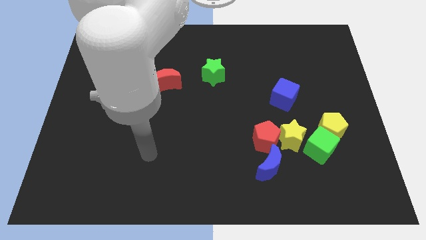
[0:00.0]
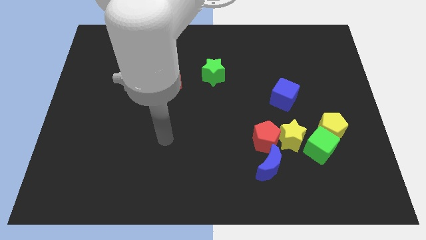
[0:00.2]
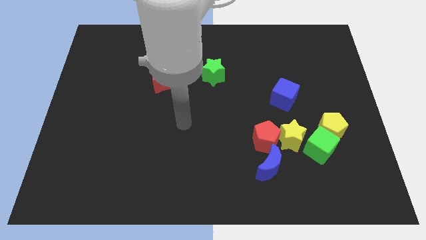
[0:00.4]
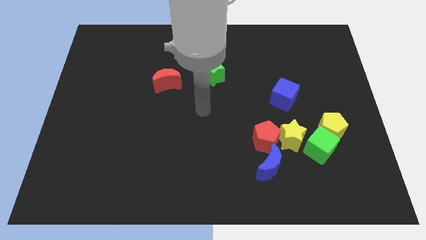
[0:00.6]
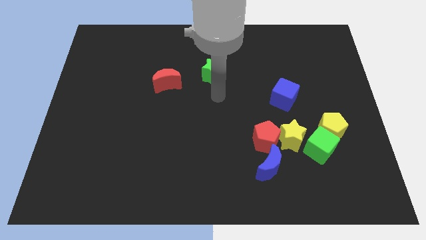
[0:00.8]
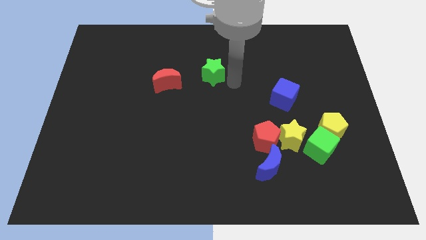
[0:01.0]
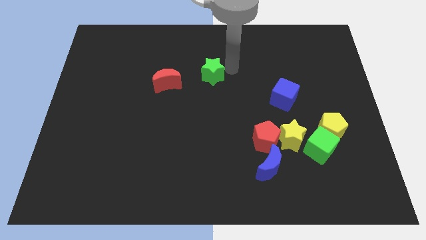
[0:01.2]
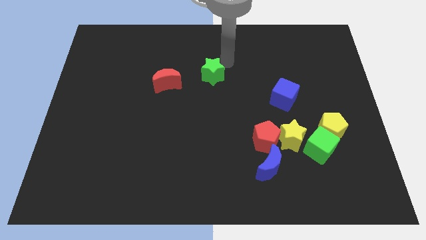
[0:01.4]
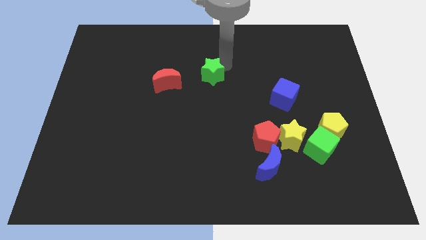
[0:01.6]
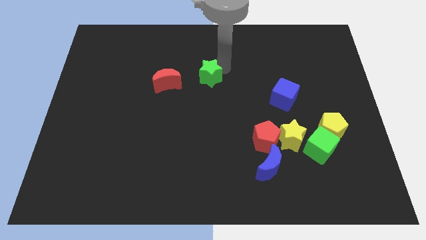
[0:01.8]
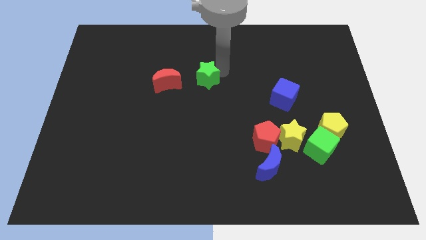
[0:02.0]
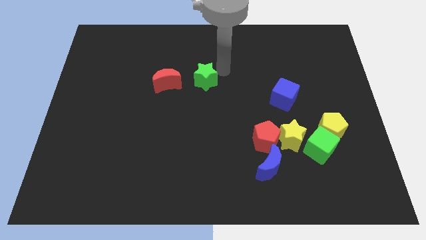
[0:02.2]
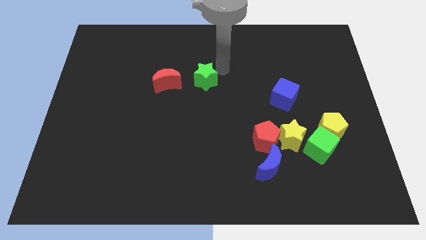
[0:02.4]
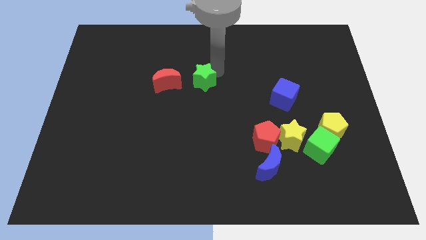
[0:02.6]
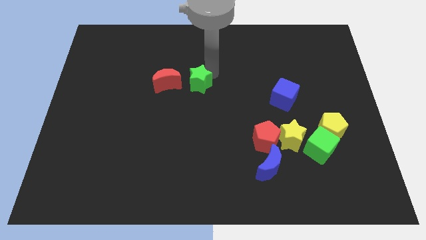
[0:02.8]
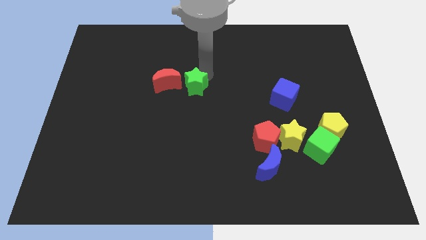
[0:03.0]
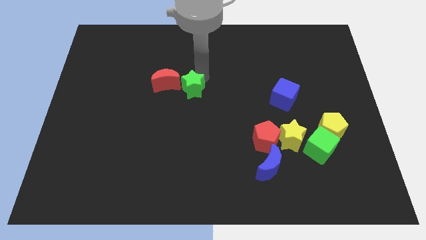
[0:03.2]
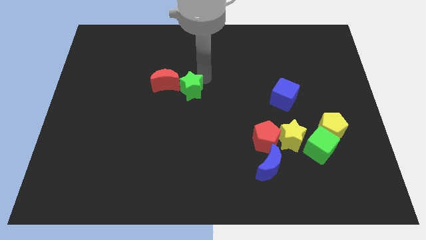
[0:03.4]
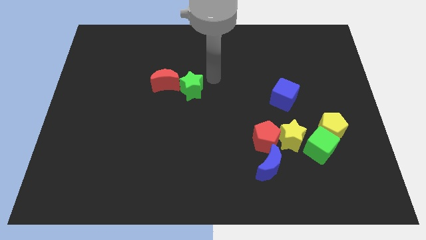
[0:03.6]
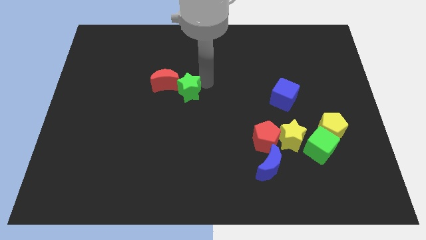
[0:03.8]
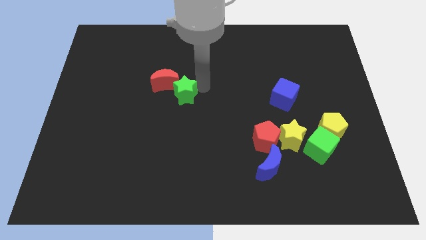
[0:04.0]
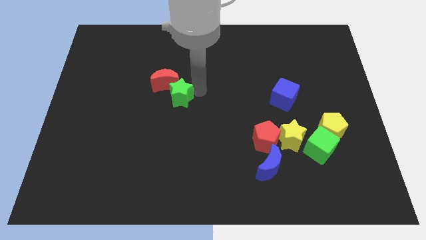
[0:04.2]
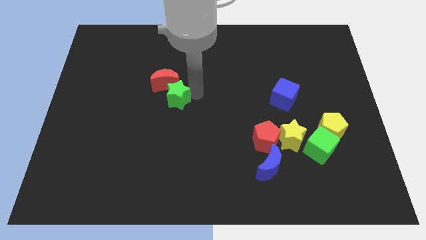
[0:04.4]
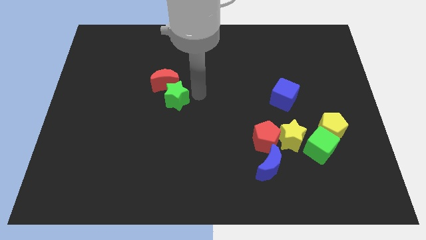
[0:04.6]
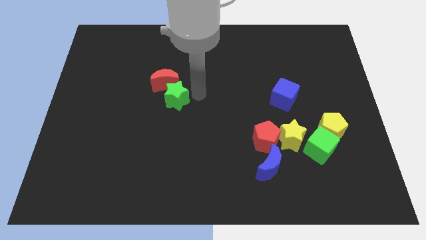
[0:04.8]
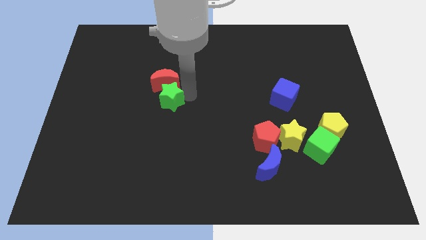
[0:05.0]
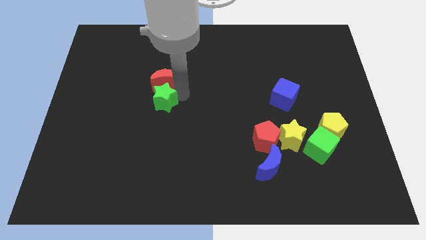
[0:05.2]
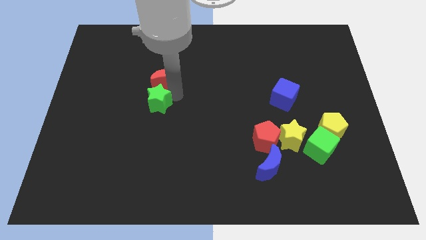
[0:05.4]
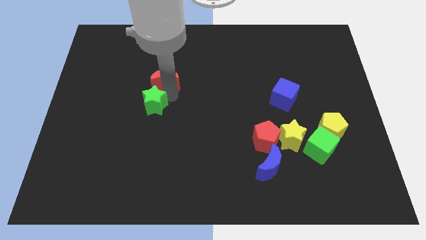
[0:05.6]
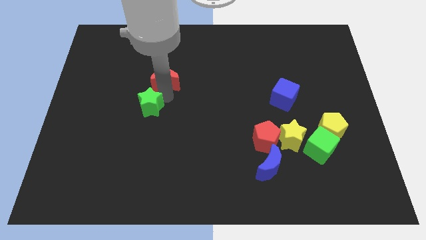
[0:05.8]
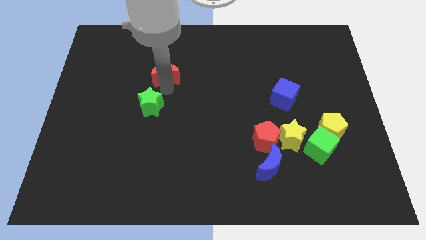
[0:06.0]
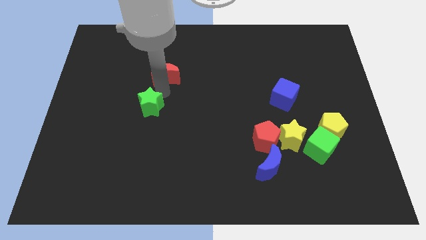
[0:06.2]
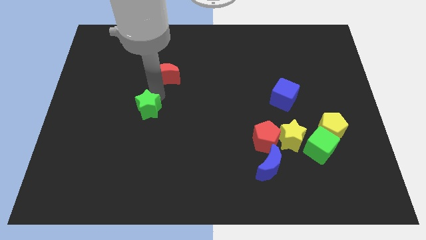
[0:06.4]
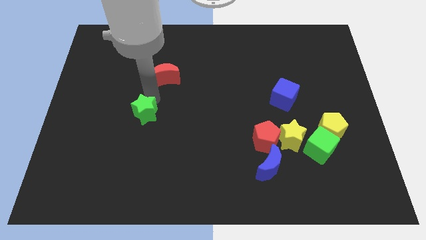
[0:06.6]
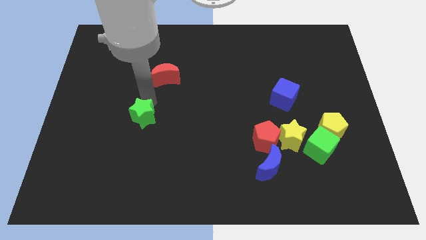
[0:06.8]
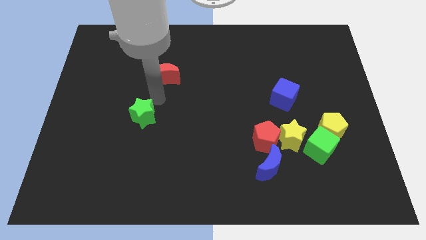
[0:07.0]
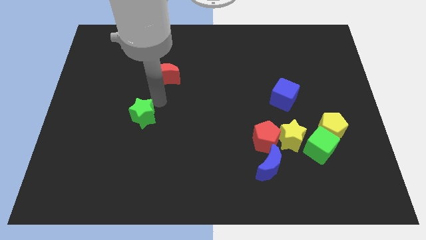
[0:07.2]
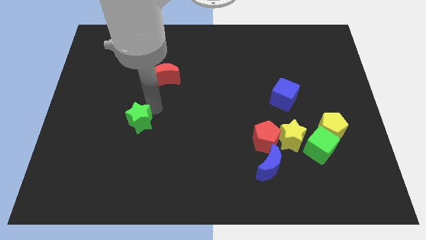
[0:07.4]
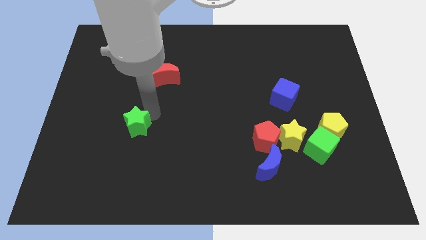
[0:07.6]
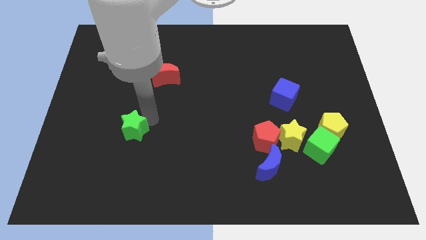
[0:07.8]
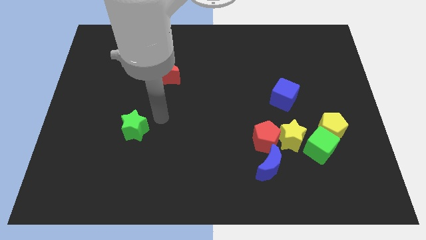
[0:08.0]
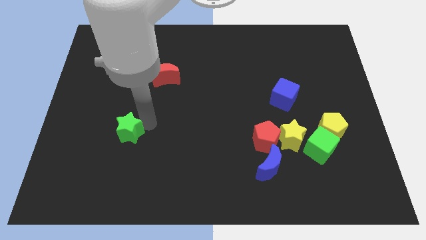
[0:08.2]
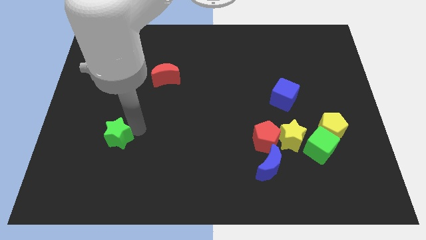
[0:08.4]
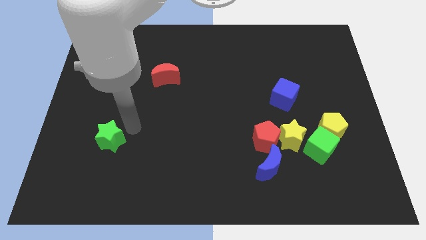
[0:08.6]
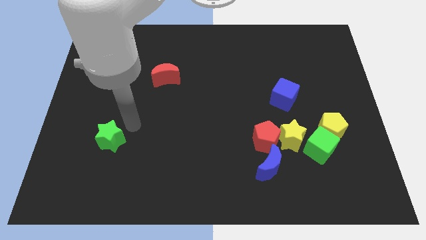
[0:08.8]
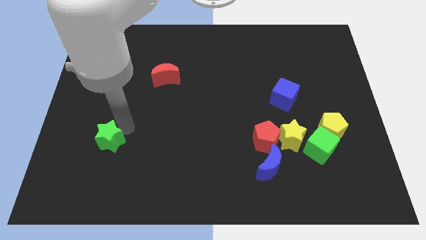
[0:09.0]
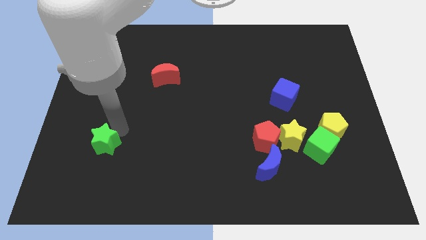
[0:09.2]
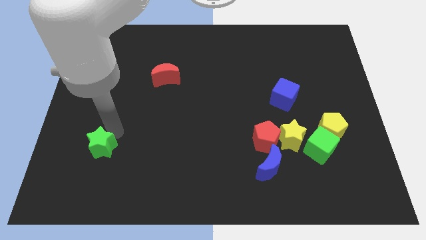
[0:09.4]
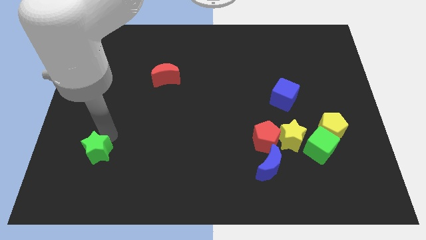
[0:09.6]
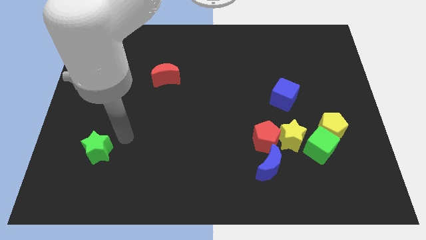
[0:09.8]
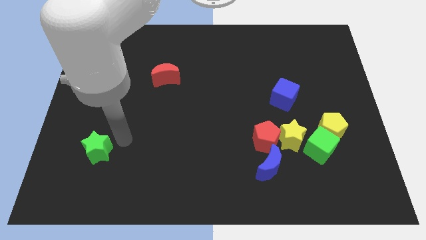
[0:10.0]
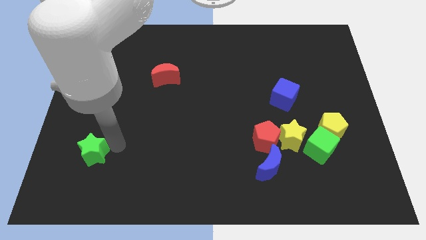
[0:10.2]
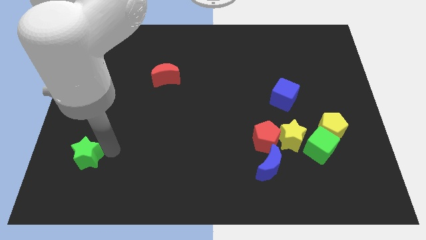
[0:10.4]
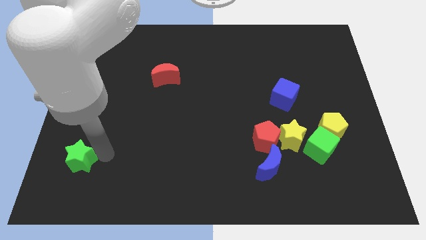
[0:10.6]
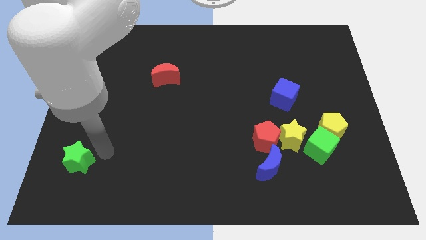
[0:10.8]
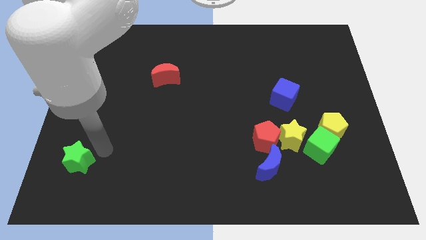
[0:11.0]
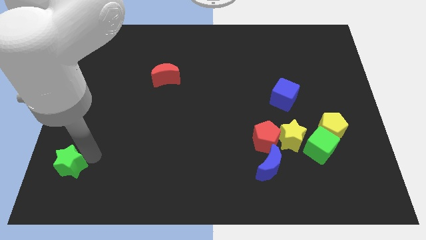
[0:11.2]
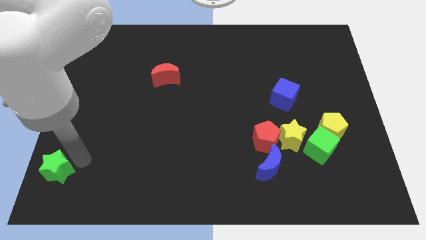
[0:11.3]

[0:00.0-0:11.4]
slide the green star to the bottom left
